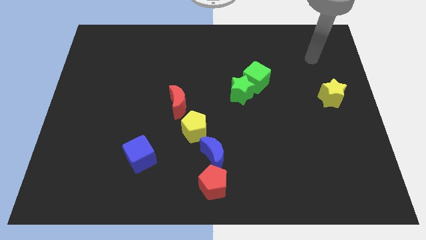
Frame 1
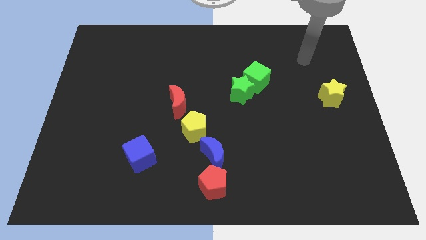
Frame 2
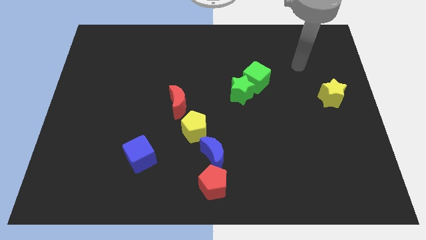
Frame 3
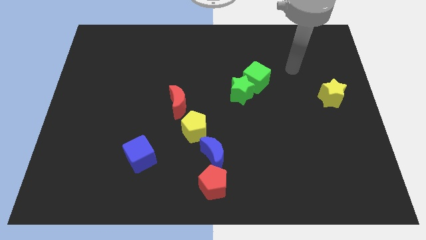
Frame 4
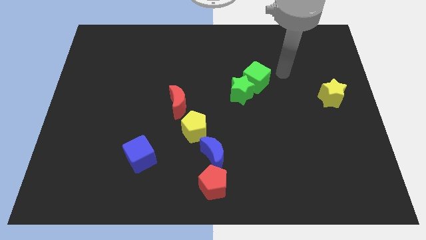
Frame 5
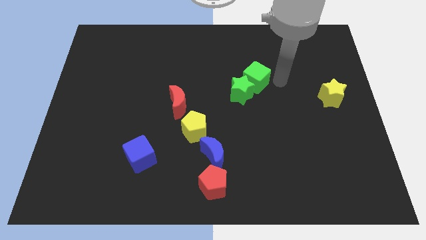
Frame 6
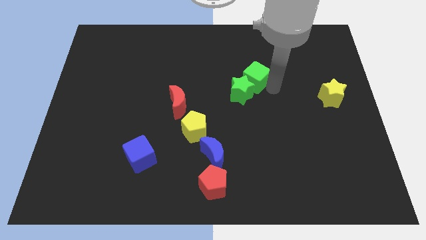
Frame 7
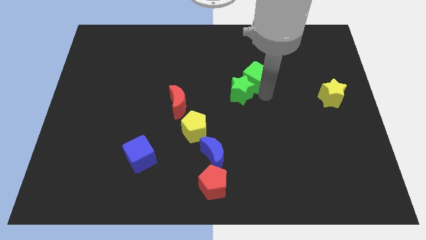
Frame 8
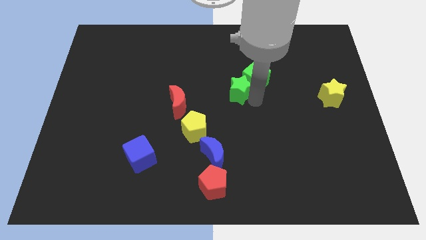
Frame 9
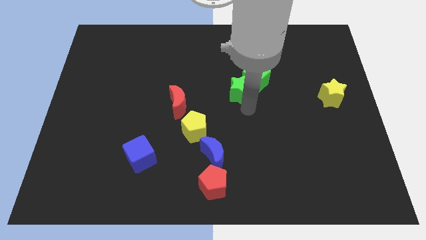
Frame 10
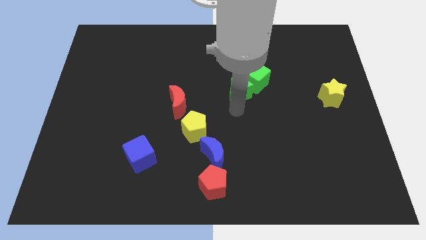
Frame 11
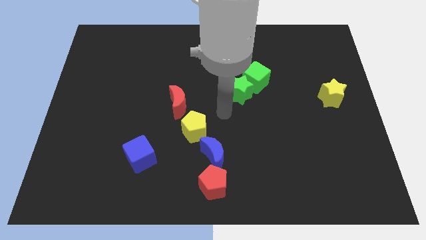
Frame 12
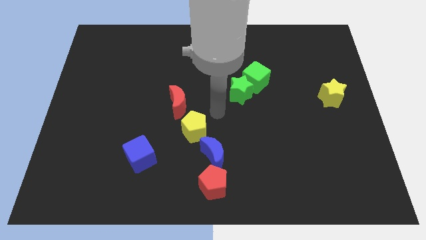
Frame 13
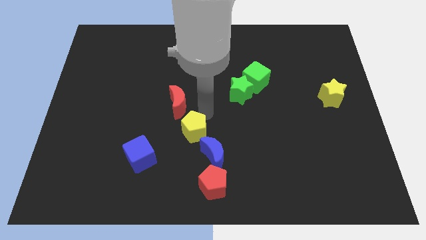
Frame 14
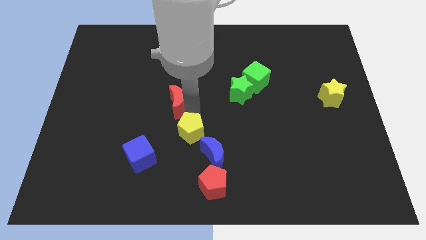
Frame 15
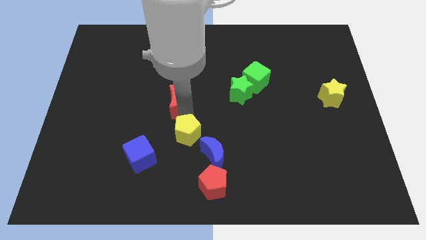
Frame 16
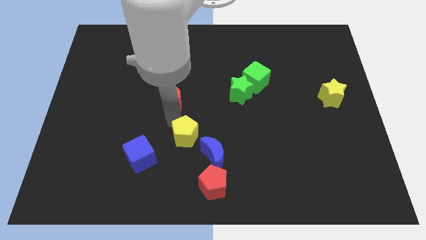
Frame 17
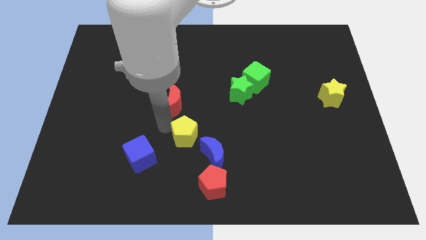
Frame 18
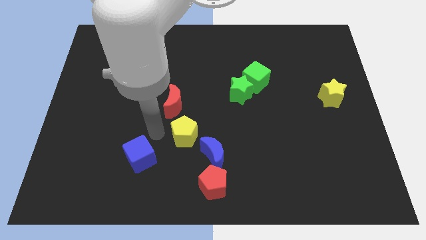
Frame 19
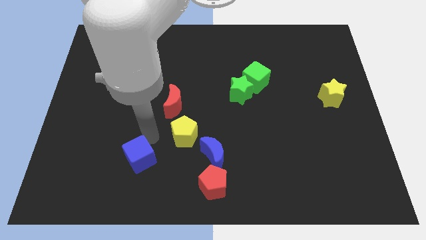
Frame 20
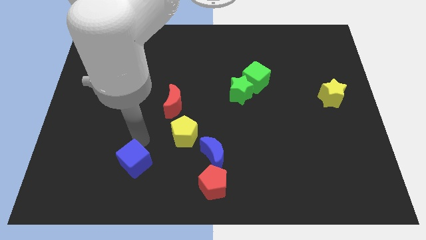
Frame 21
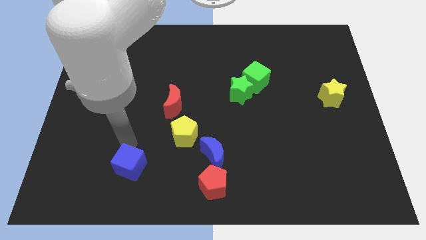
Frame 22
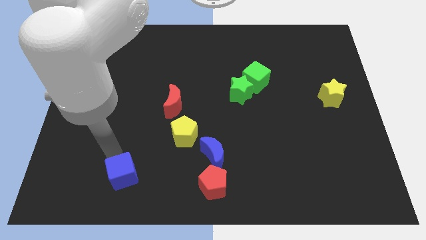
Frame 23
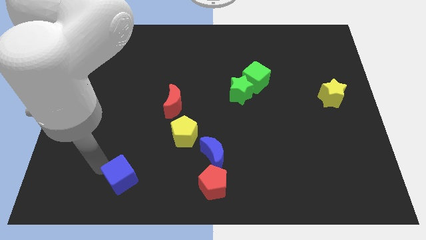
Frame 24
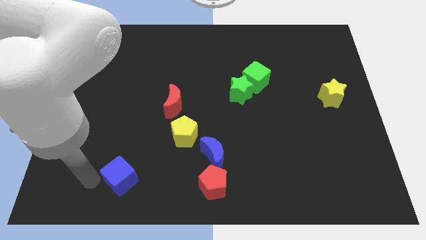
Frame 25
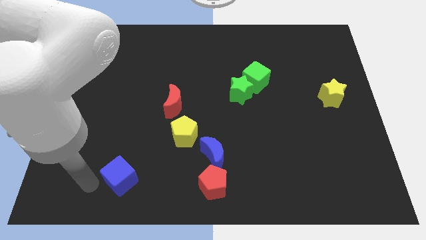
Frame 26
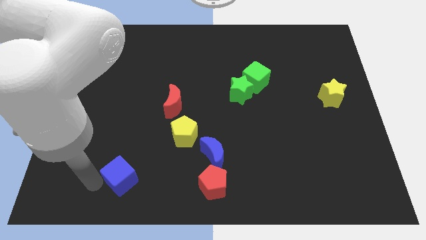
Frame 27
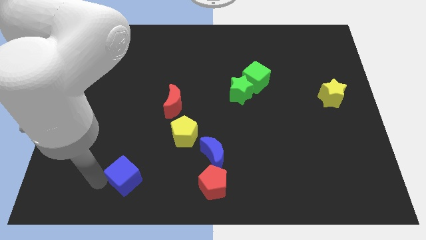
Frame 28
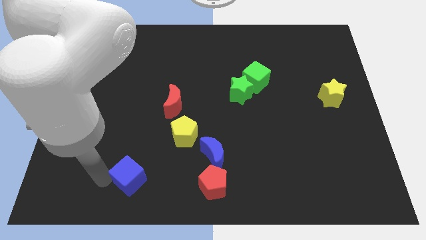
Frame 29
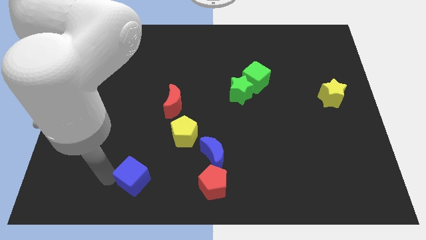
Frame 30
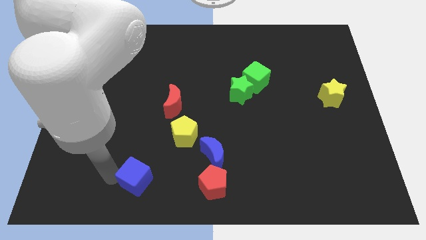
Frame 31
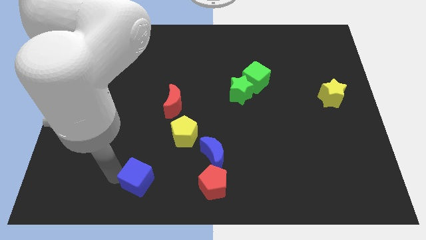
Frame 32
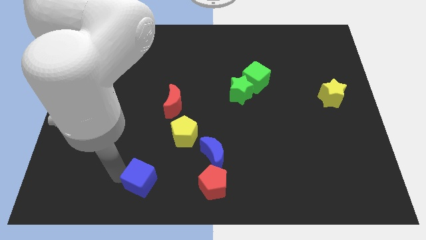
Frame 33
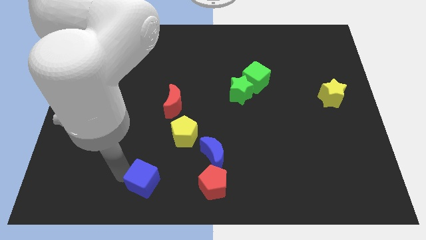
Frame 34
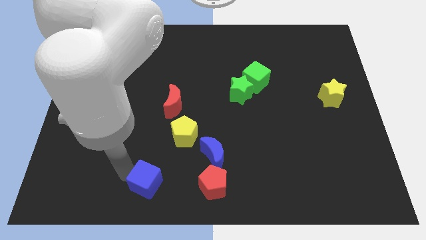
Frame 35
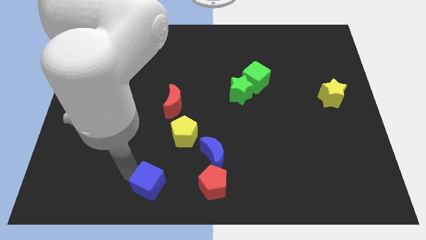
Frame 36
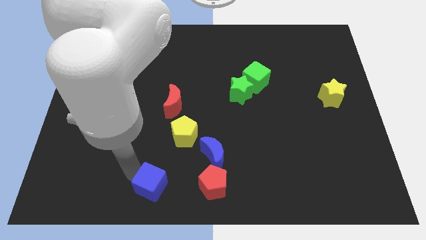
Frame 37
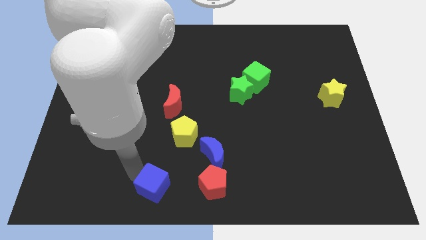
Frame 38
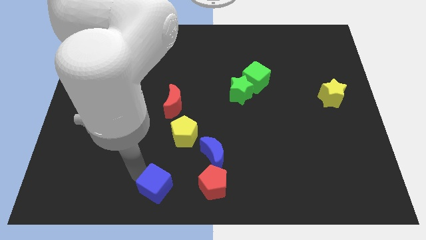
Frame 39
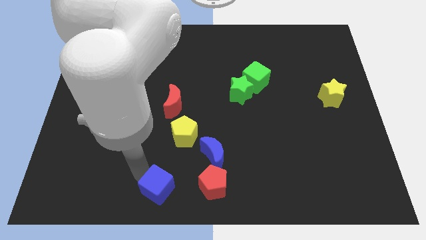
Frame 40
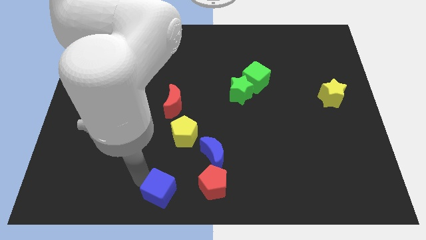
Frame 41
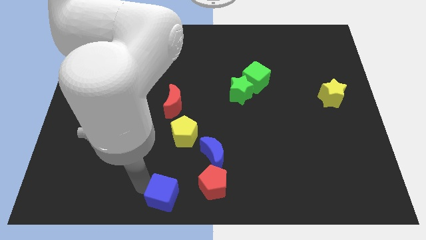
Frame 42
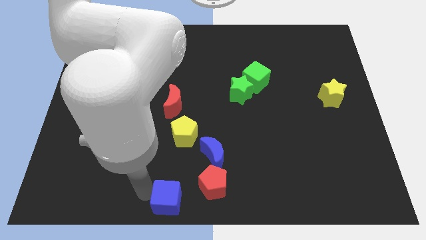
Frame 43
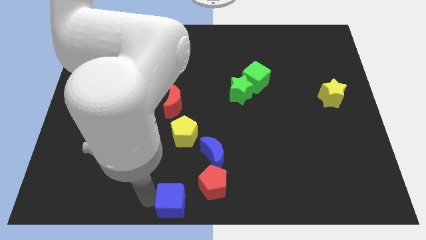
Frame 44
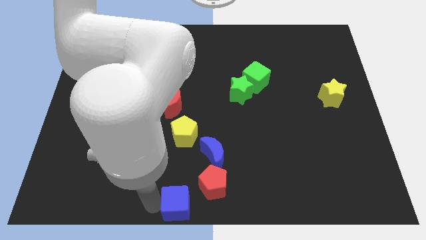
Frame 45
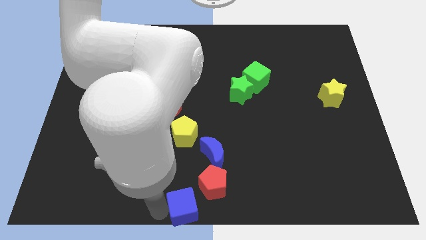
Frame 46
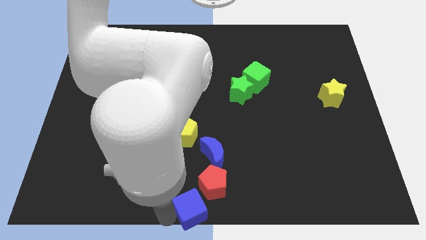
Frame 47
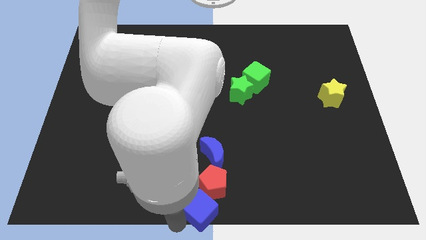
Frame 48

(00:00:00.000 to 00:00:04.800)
slide the blue cube to the red pentagon

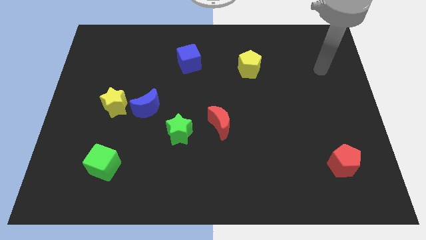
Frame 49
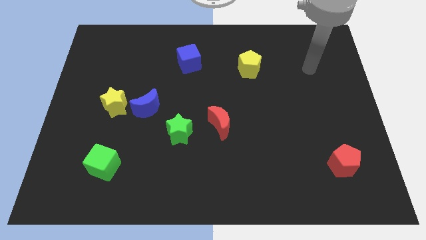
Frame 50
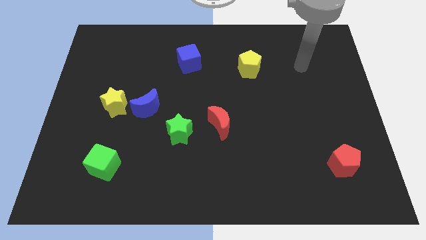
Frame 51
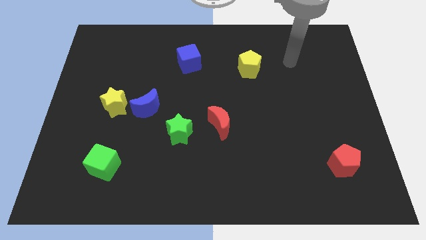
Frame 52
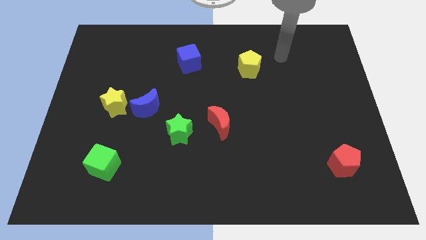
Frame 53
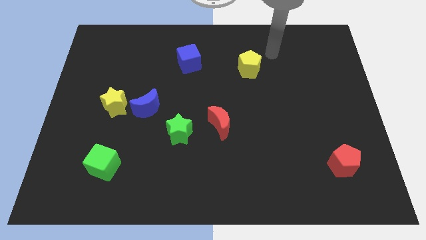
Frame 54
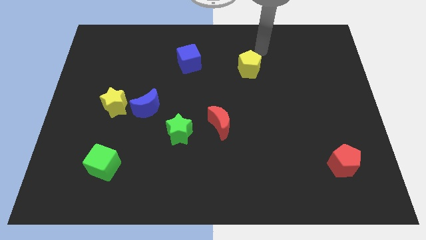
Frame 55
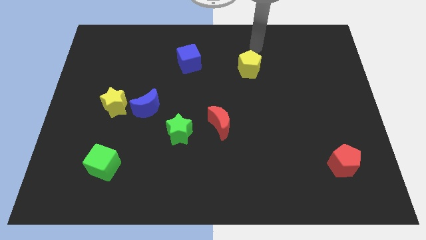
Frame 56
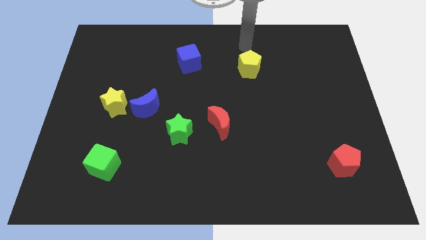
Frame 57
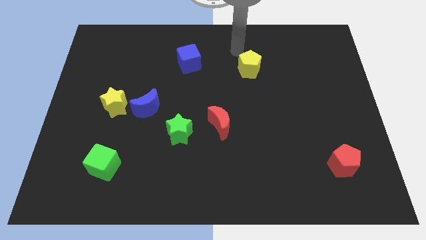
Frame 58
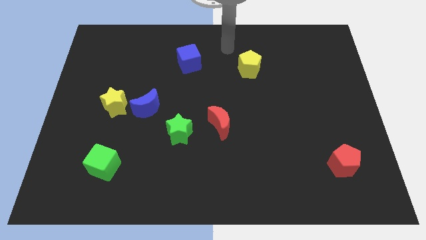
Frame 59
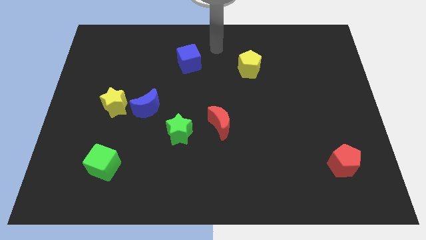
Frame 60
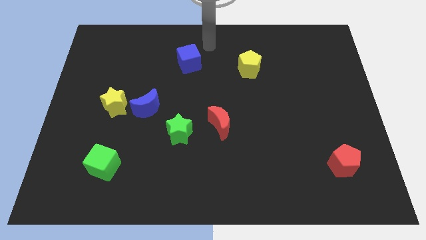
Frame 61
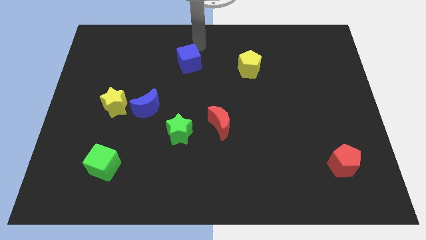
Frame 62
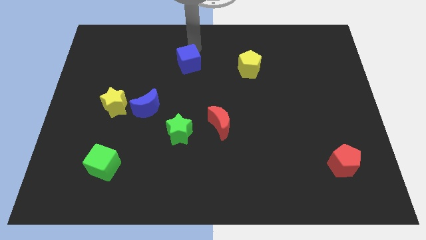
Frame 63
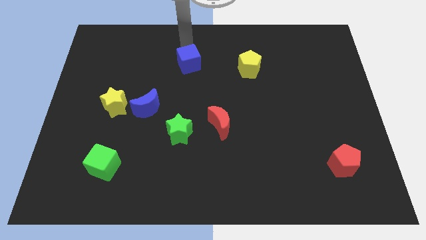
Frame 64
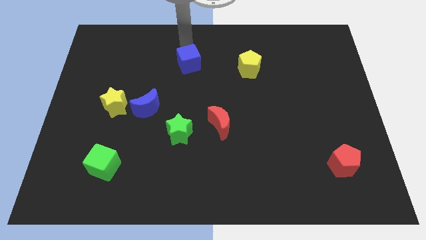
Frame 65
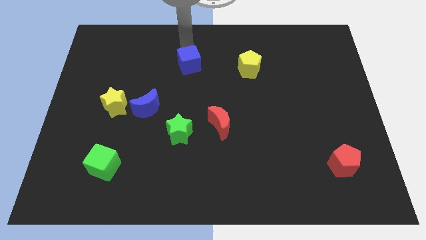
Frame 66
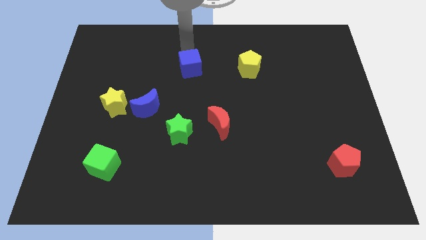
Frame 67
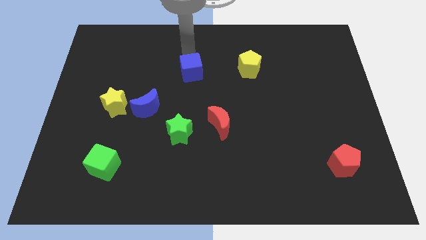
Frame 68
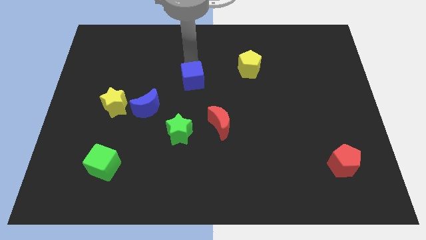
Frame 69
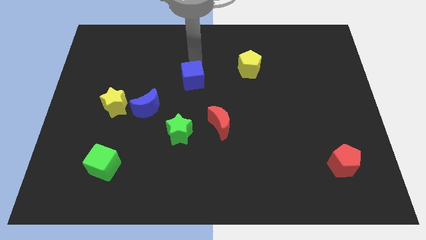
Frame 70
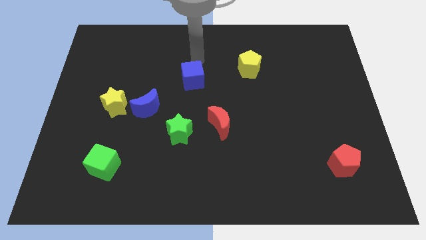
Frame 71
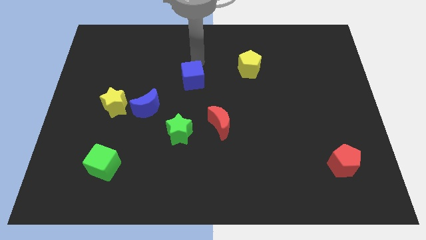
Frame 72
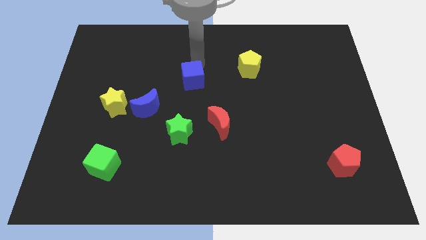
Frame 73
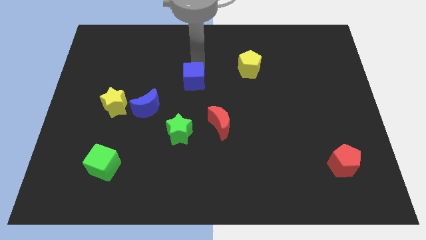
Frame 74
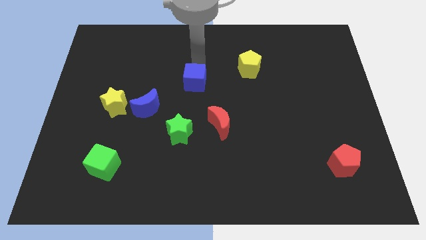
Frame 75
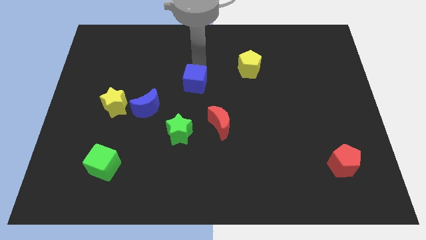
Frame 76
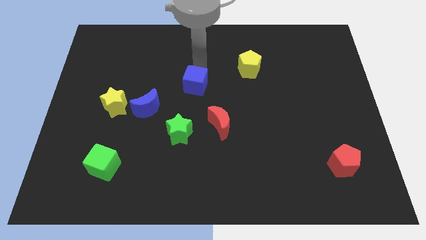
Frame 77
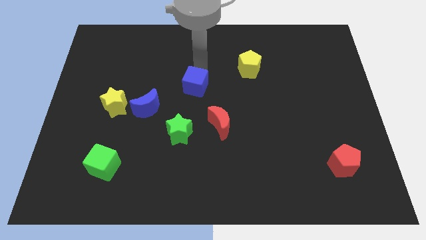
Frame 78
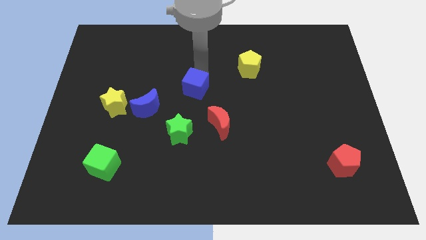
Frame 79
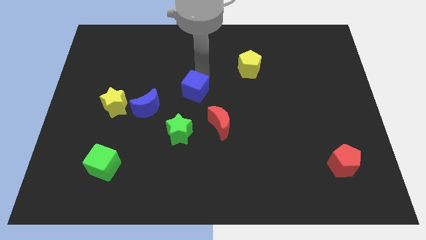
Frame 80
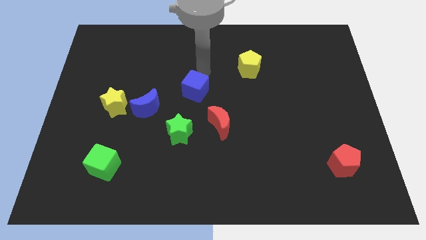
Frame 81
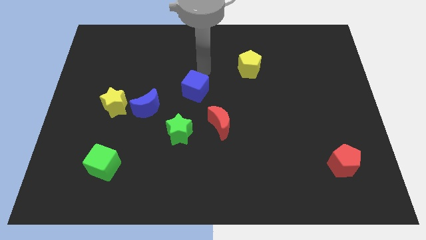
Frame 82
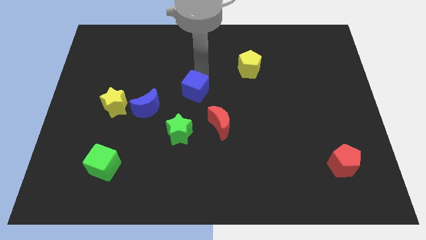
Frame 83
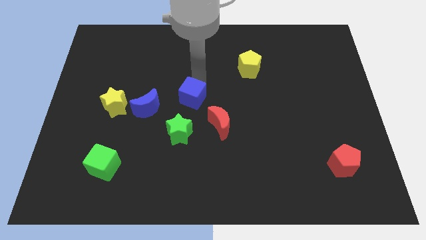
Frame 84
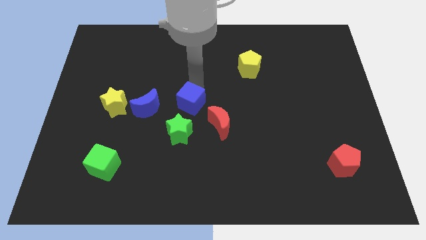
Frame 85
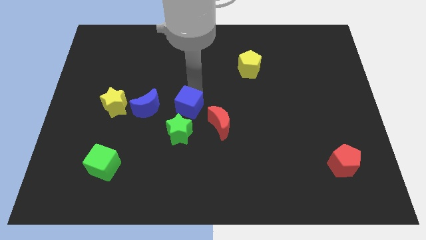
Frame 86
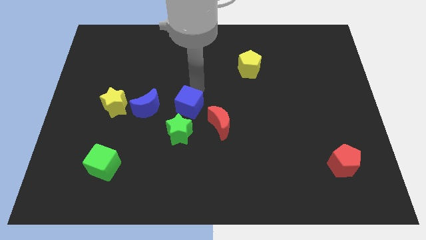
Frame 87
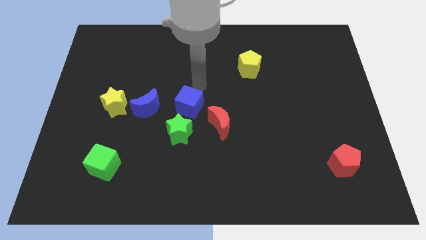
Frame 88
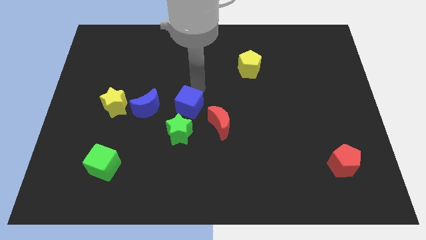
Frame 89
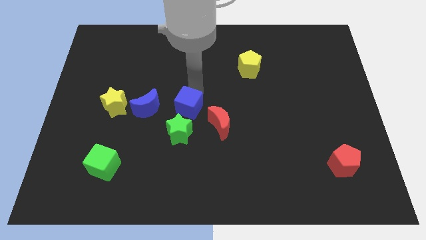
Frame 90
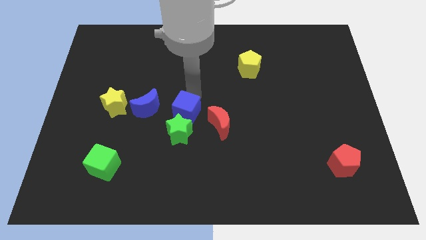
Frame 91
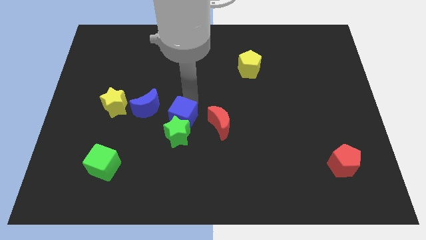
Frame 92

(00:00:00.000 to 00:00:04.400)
move the blue cube towards the green star
